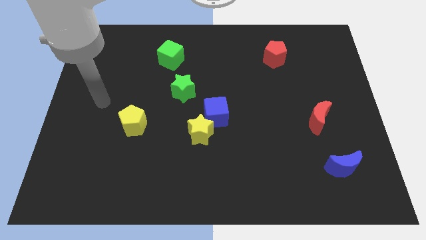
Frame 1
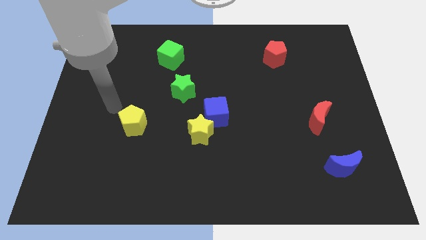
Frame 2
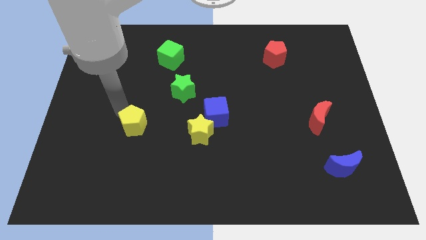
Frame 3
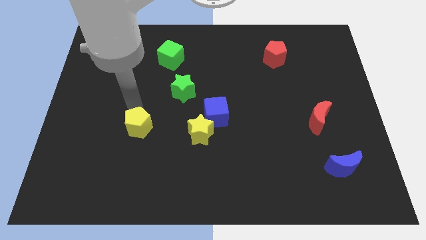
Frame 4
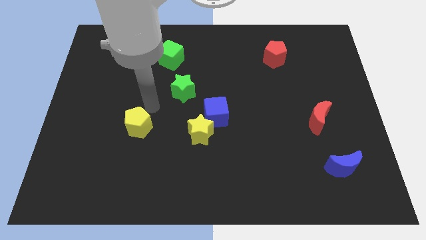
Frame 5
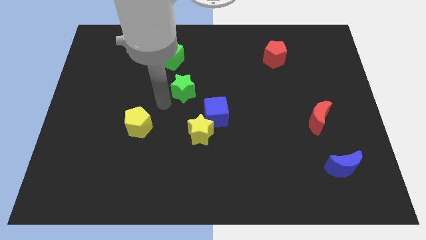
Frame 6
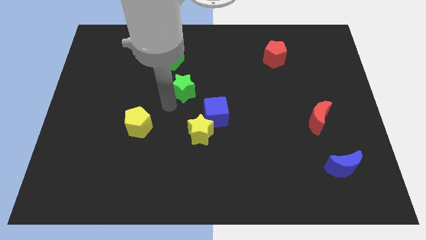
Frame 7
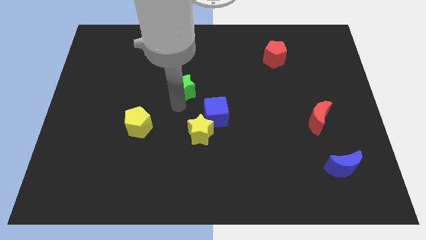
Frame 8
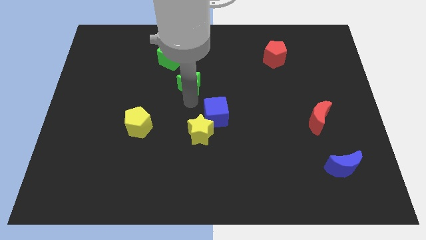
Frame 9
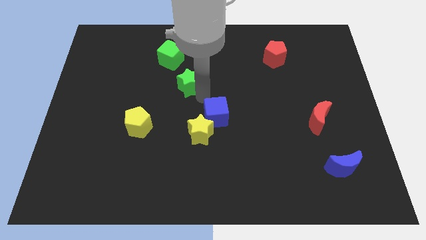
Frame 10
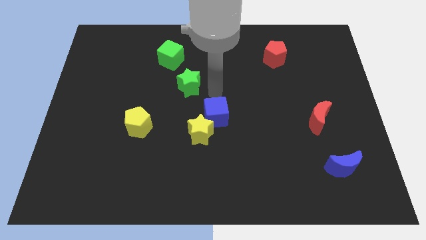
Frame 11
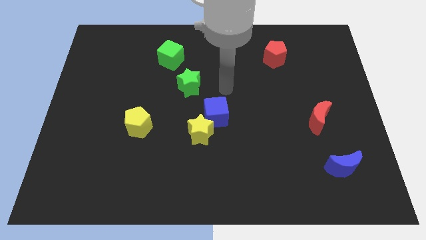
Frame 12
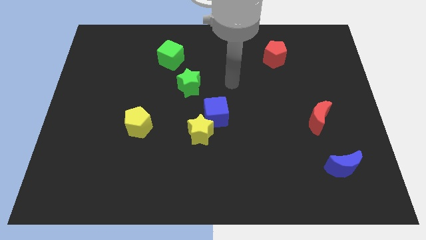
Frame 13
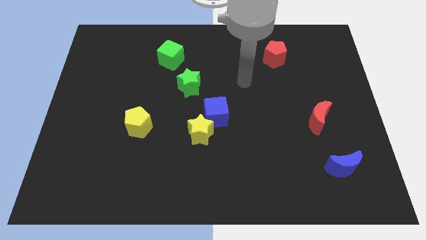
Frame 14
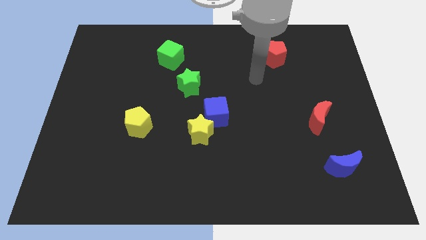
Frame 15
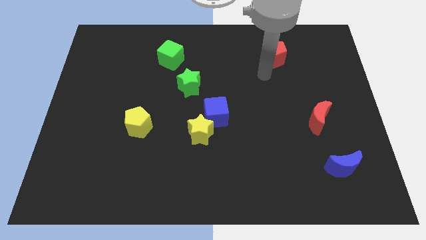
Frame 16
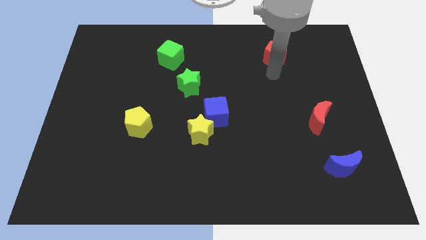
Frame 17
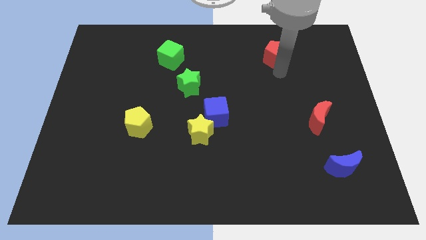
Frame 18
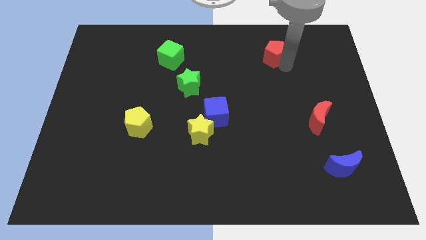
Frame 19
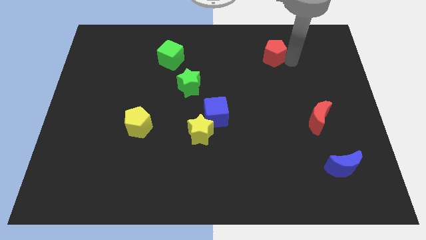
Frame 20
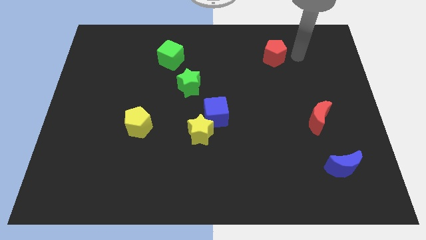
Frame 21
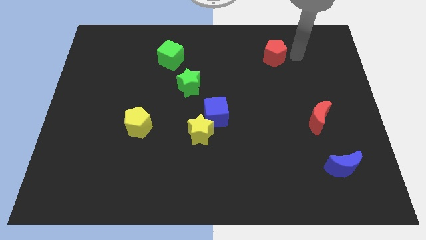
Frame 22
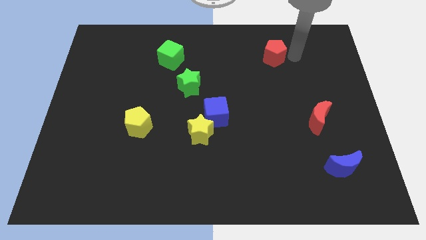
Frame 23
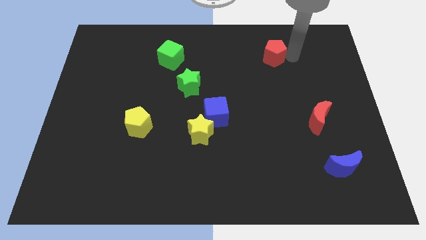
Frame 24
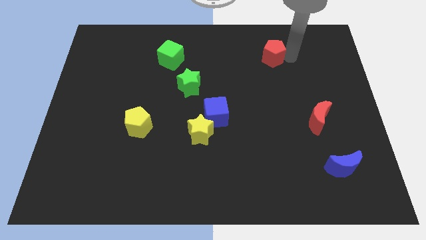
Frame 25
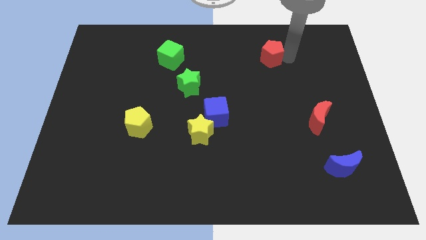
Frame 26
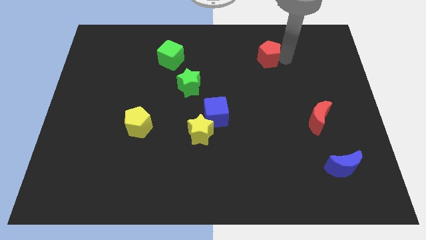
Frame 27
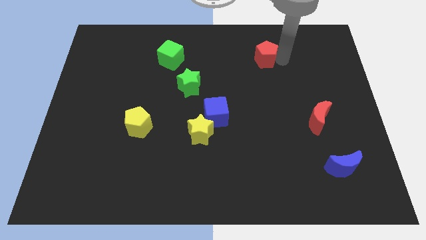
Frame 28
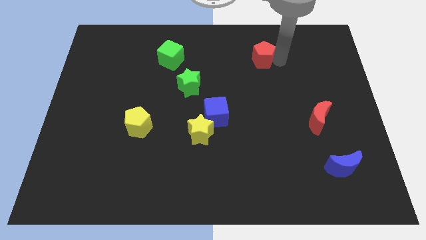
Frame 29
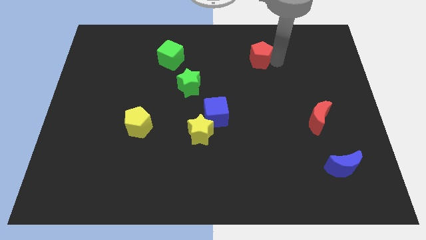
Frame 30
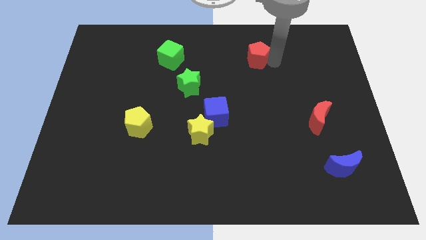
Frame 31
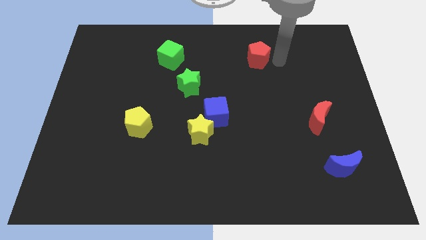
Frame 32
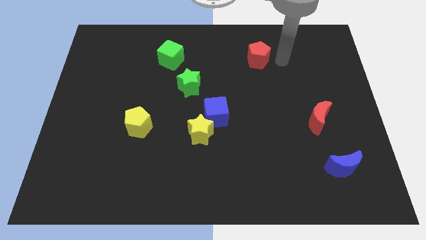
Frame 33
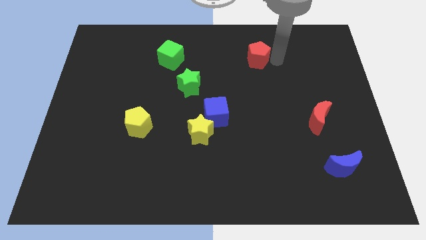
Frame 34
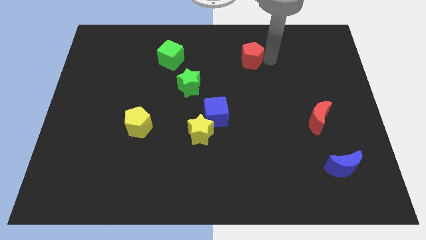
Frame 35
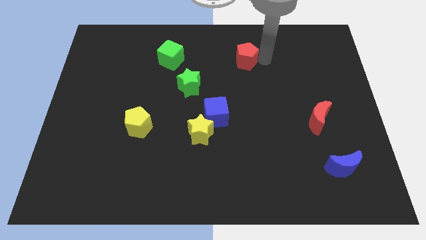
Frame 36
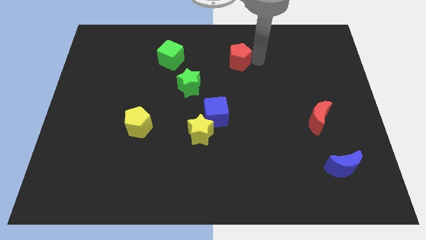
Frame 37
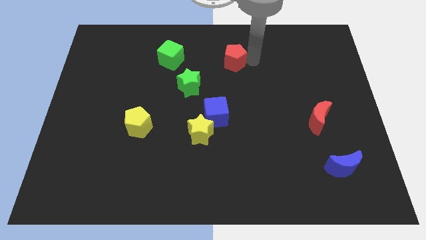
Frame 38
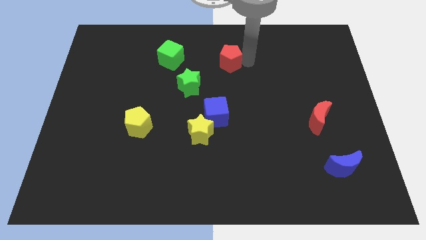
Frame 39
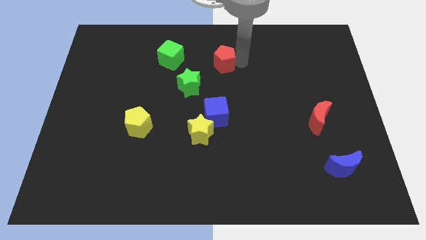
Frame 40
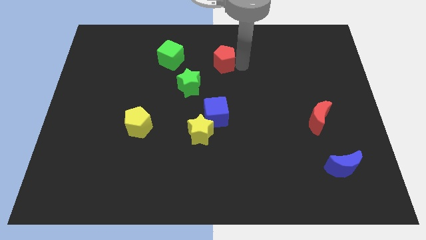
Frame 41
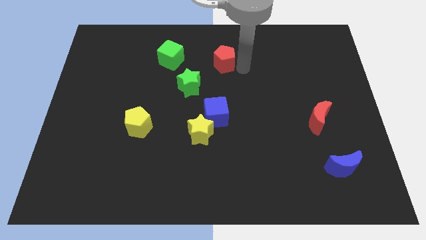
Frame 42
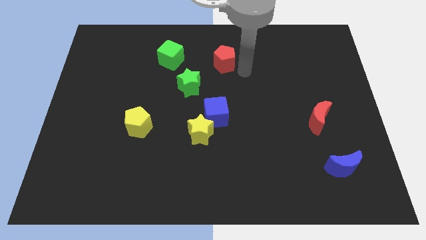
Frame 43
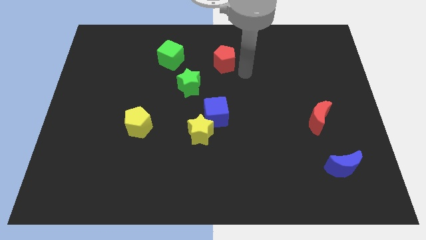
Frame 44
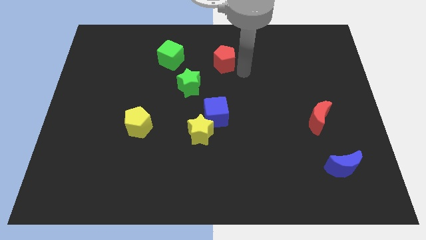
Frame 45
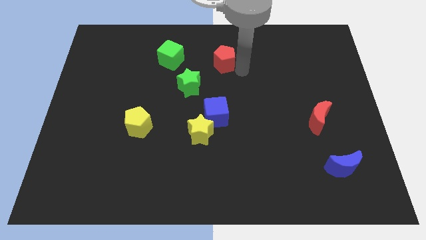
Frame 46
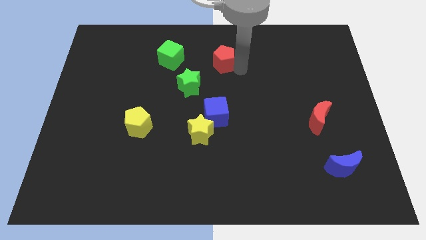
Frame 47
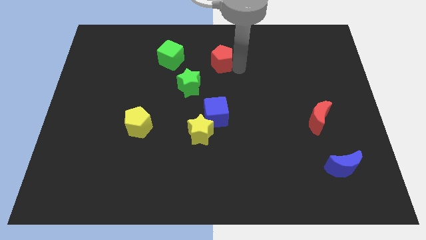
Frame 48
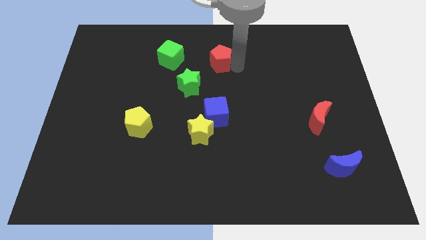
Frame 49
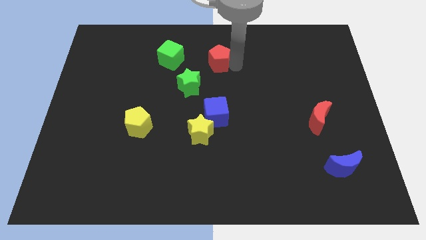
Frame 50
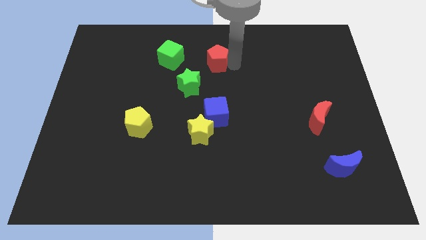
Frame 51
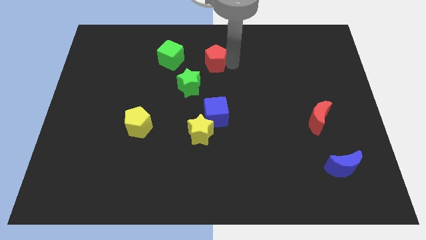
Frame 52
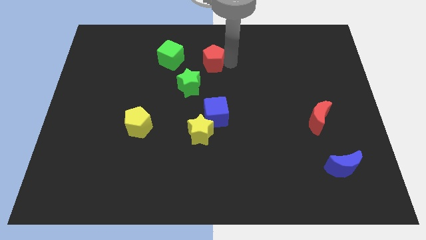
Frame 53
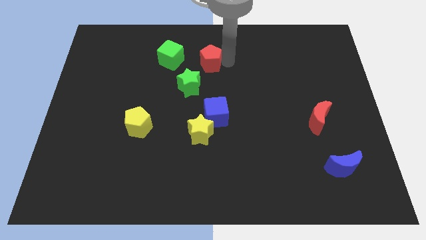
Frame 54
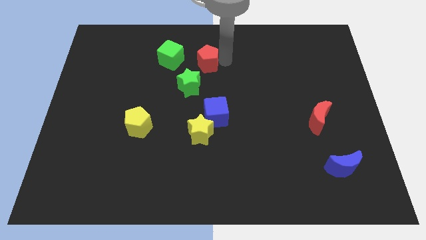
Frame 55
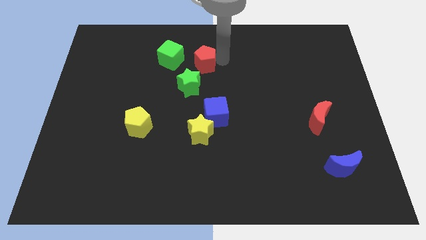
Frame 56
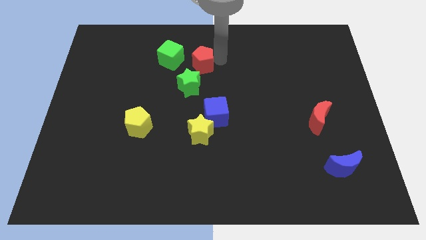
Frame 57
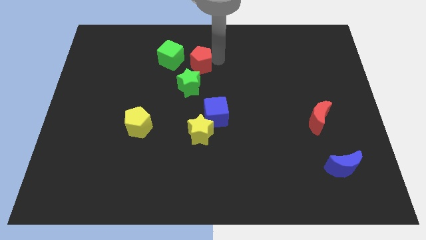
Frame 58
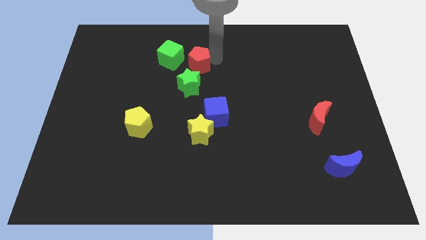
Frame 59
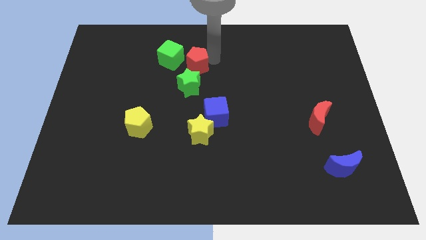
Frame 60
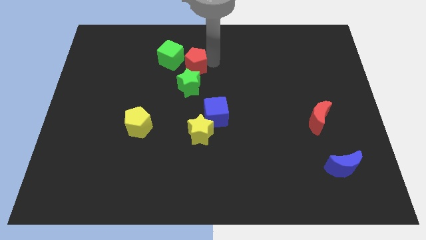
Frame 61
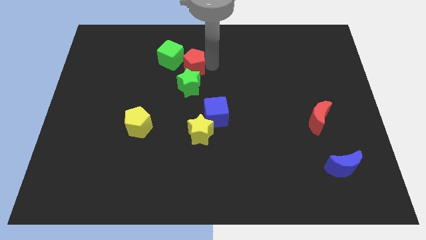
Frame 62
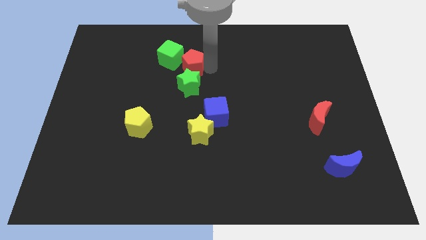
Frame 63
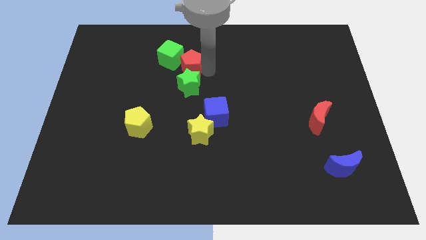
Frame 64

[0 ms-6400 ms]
move the red pentagon to the green cube
